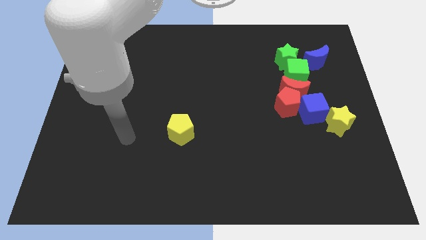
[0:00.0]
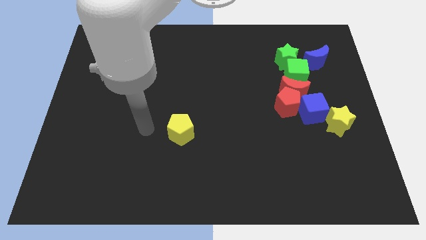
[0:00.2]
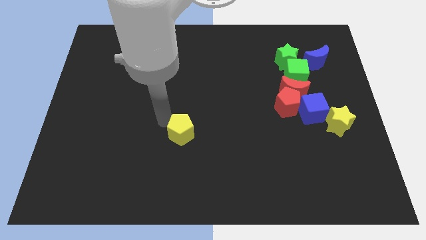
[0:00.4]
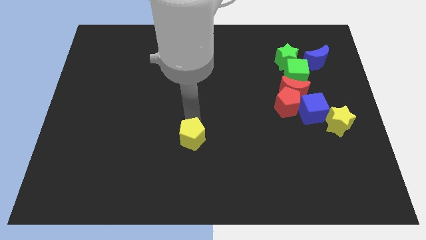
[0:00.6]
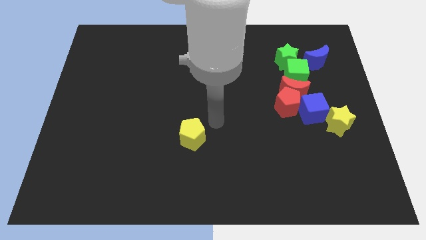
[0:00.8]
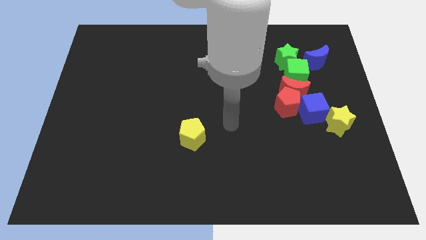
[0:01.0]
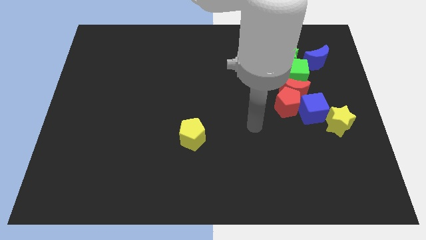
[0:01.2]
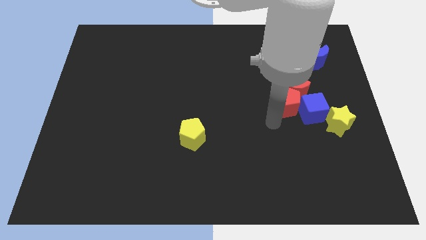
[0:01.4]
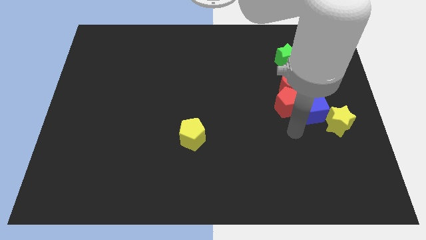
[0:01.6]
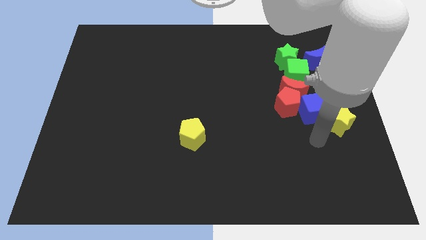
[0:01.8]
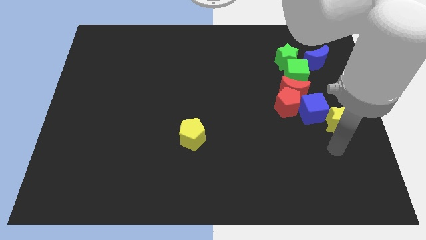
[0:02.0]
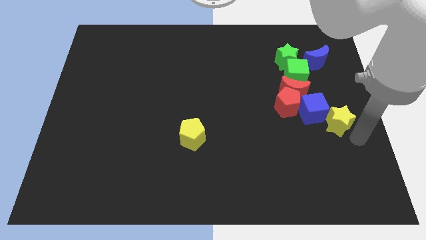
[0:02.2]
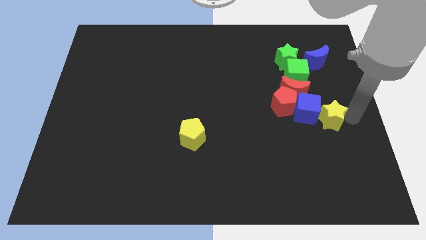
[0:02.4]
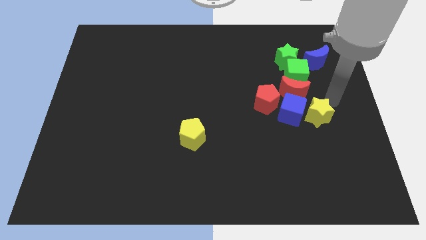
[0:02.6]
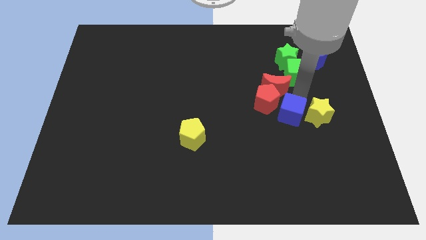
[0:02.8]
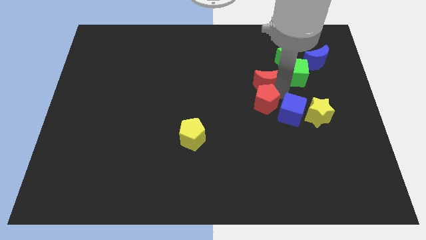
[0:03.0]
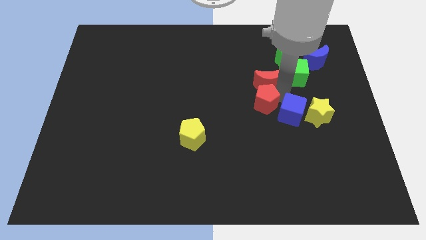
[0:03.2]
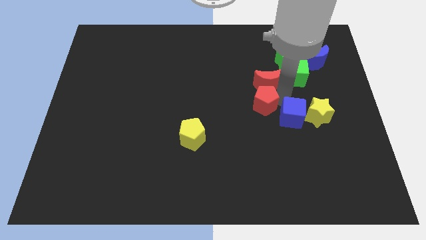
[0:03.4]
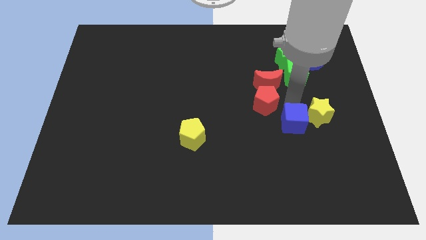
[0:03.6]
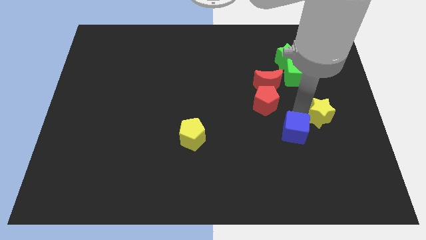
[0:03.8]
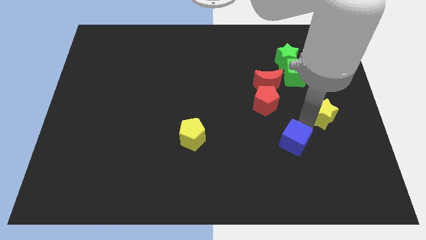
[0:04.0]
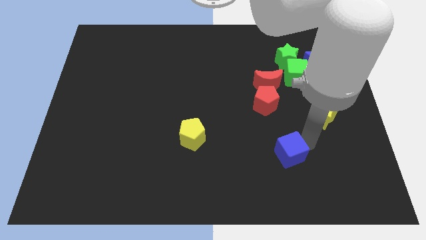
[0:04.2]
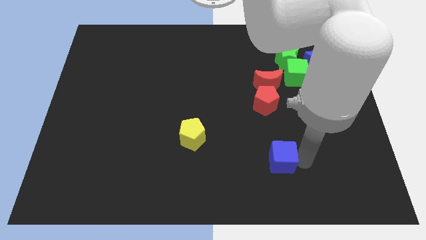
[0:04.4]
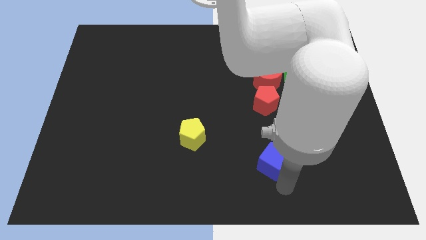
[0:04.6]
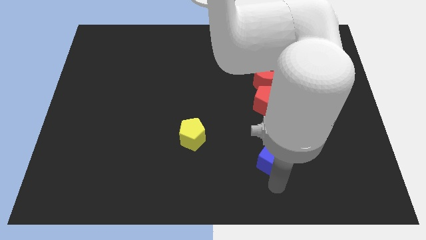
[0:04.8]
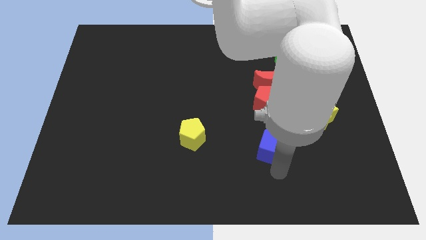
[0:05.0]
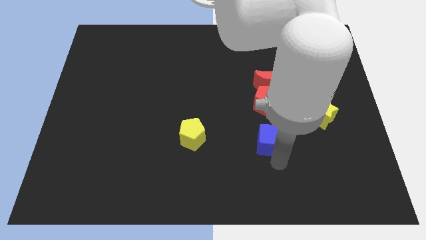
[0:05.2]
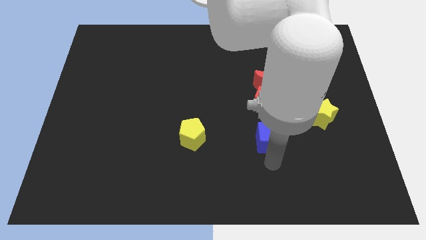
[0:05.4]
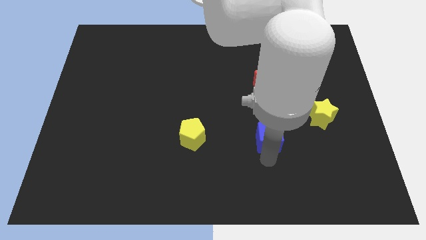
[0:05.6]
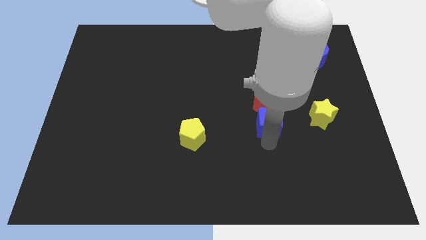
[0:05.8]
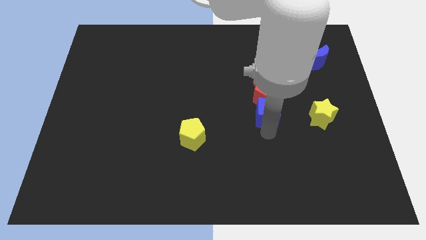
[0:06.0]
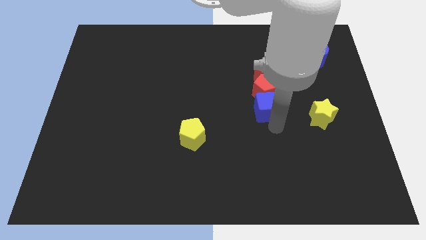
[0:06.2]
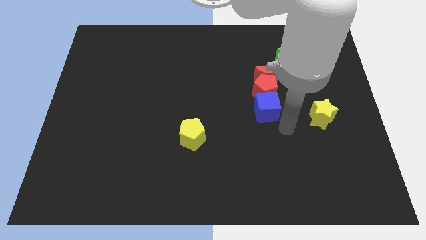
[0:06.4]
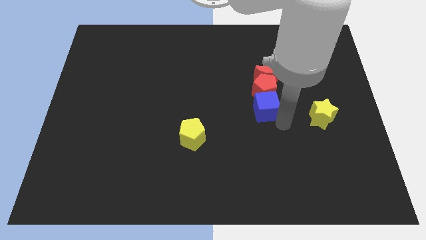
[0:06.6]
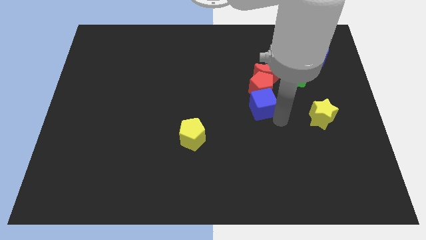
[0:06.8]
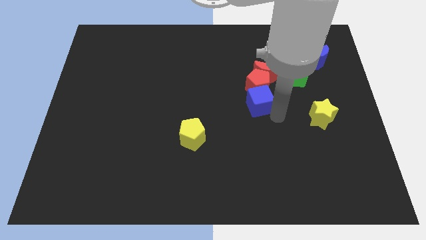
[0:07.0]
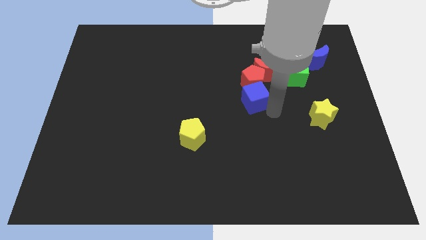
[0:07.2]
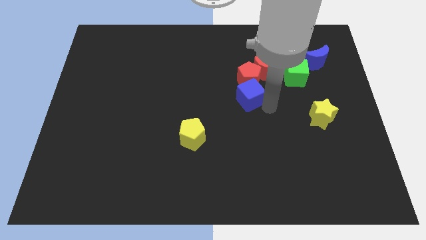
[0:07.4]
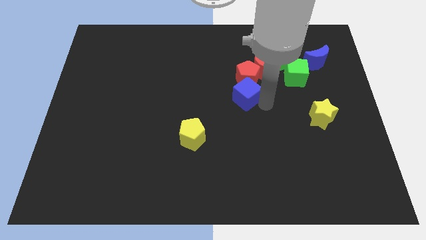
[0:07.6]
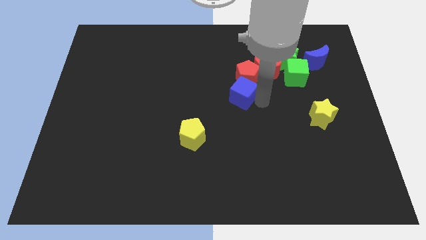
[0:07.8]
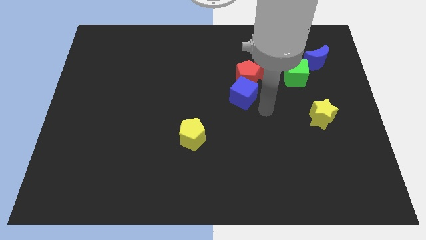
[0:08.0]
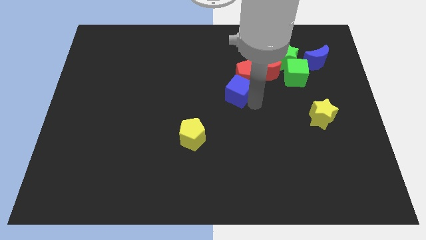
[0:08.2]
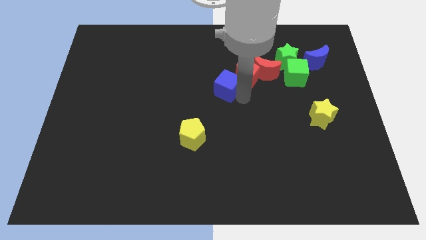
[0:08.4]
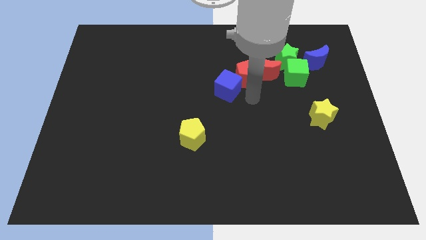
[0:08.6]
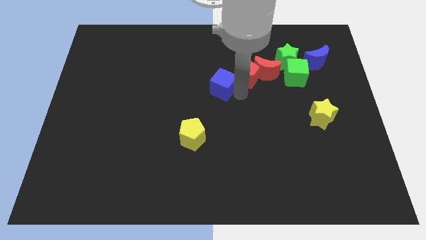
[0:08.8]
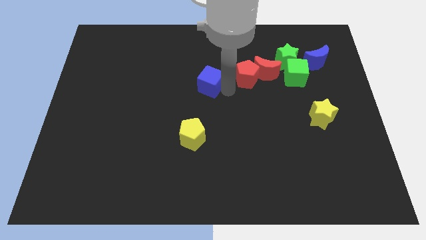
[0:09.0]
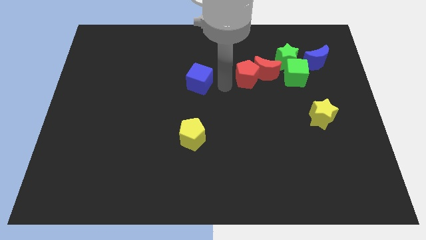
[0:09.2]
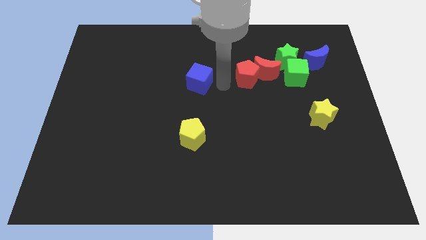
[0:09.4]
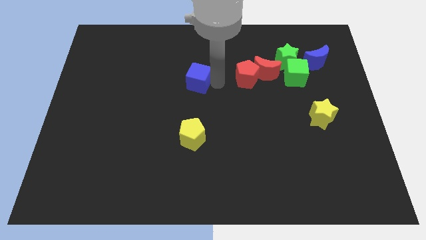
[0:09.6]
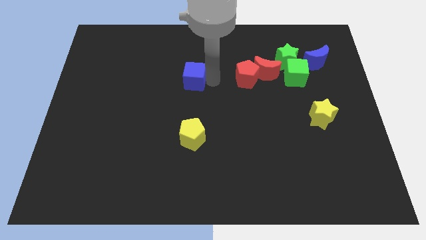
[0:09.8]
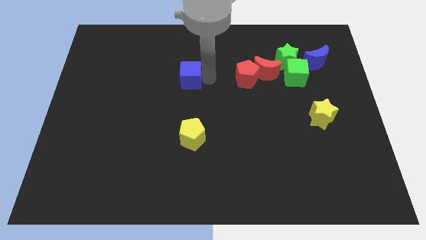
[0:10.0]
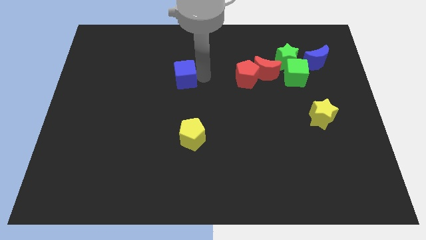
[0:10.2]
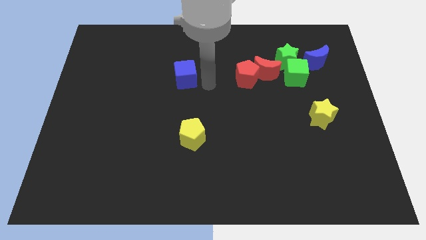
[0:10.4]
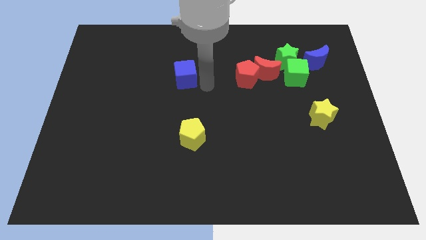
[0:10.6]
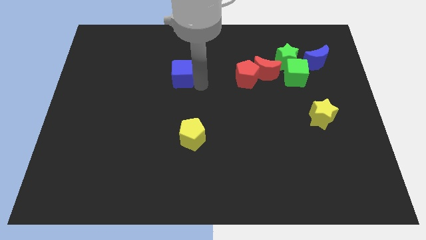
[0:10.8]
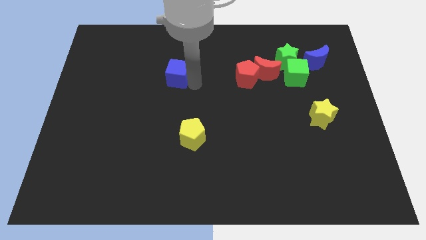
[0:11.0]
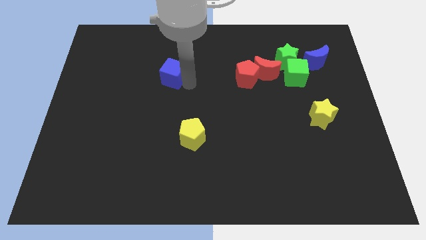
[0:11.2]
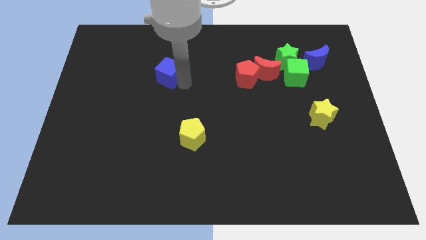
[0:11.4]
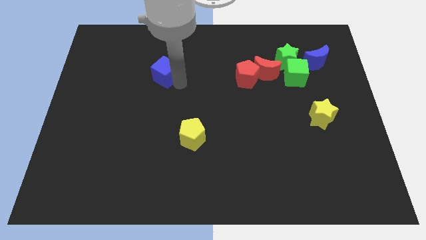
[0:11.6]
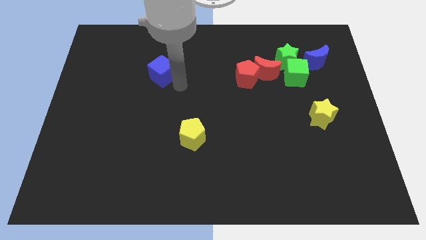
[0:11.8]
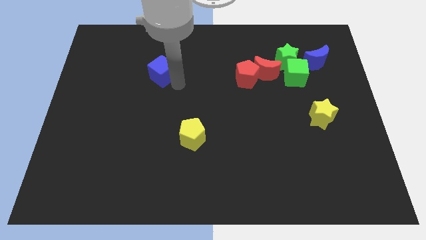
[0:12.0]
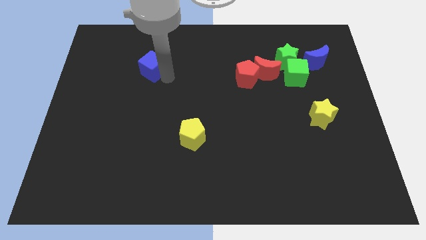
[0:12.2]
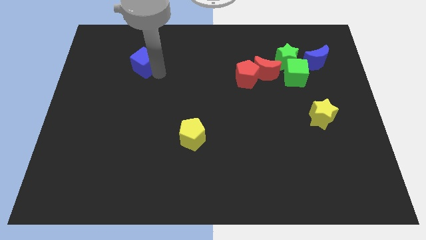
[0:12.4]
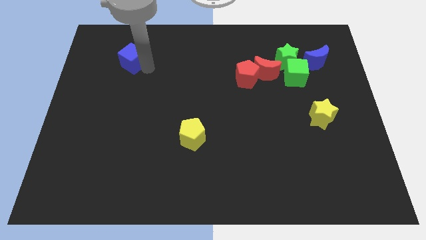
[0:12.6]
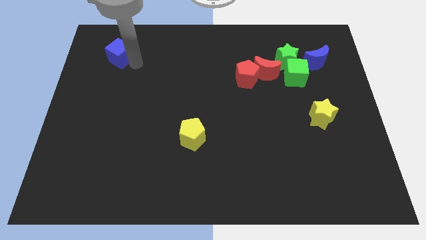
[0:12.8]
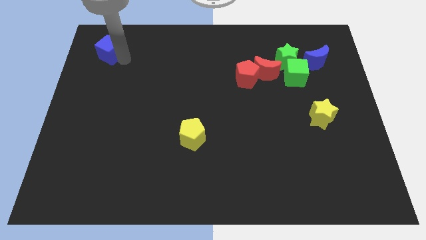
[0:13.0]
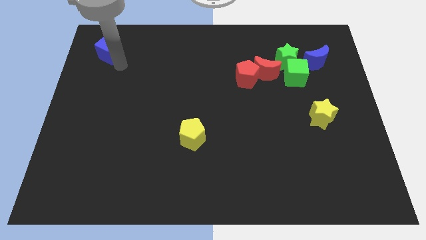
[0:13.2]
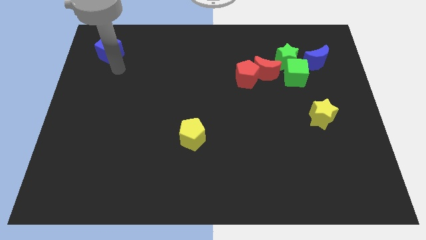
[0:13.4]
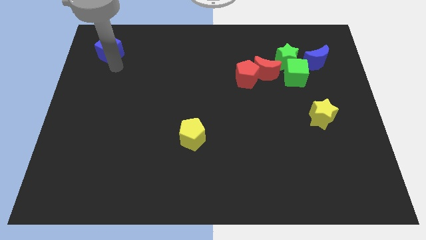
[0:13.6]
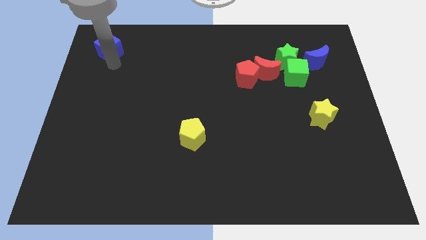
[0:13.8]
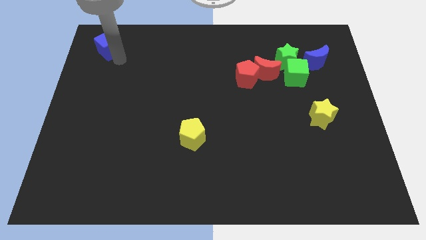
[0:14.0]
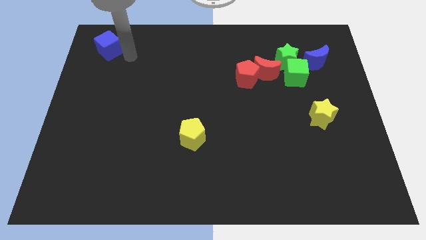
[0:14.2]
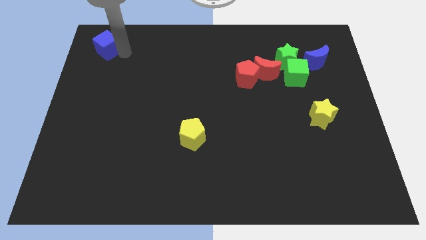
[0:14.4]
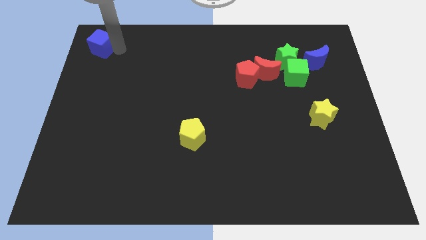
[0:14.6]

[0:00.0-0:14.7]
move the blue cube to the top left corner
